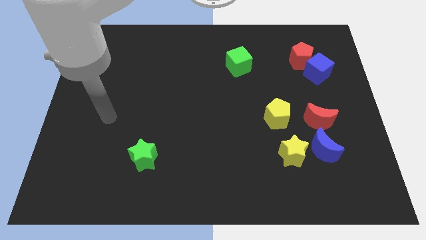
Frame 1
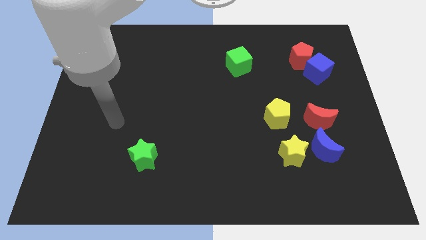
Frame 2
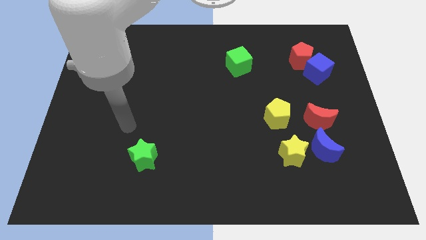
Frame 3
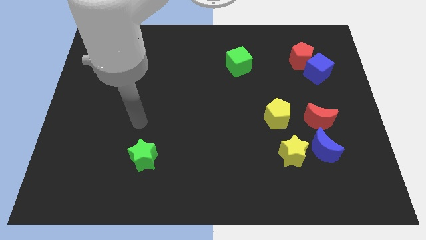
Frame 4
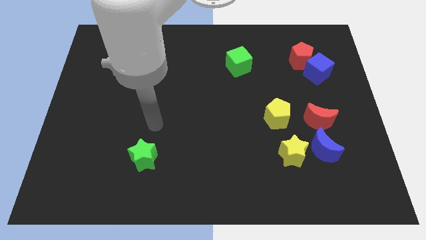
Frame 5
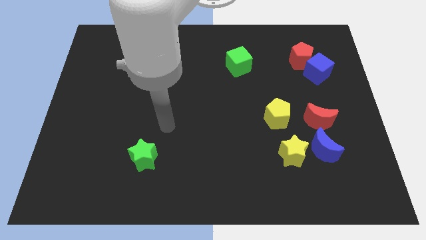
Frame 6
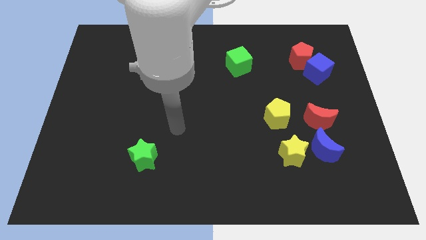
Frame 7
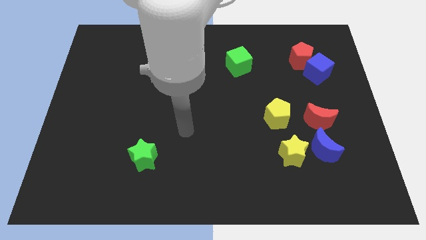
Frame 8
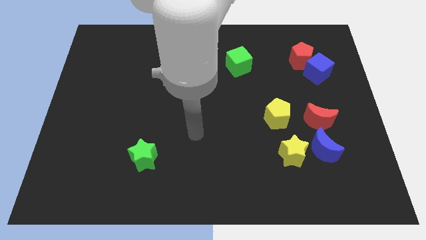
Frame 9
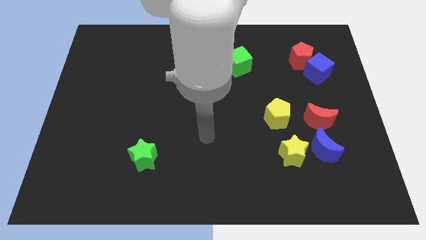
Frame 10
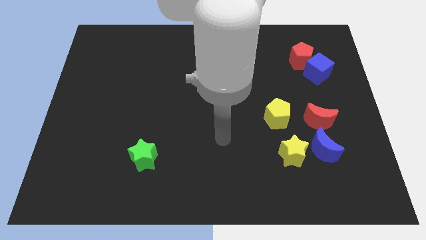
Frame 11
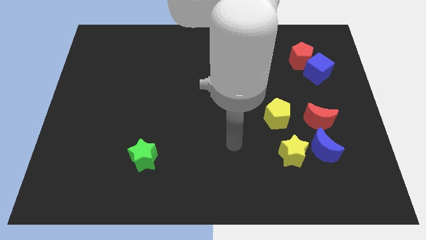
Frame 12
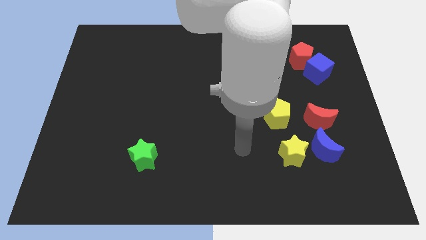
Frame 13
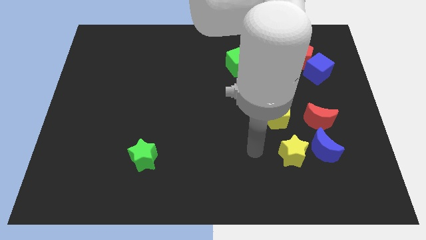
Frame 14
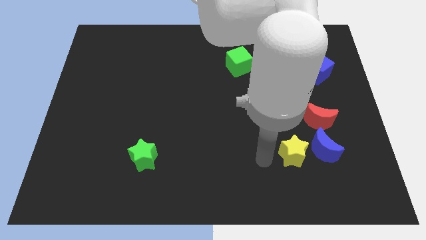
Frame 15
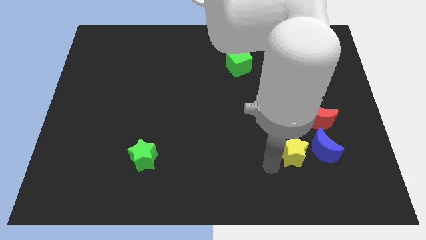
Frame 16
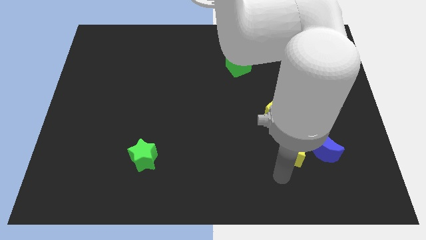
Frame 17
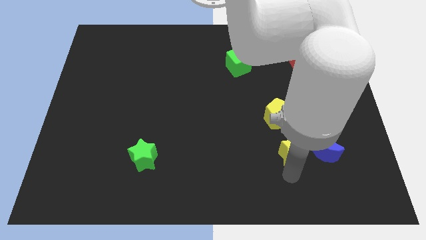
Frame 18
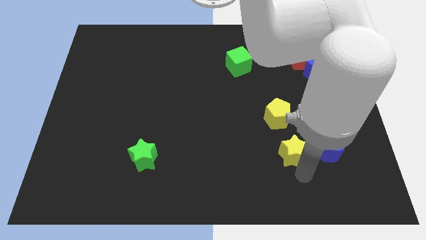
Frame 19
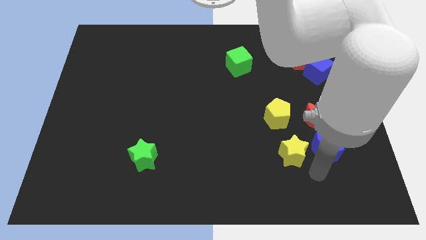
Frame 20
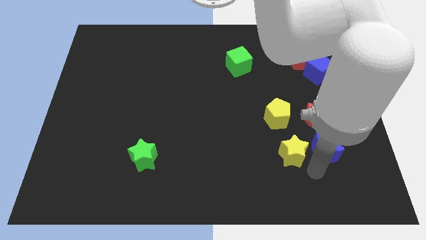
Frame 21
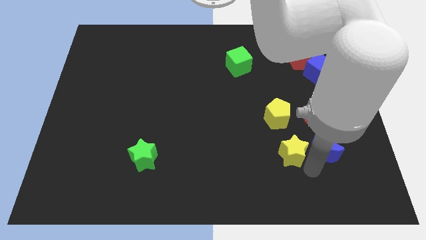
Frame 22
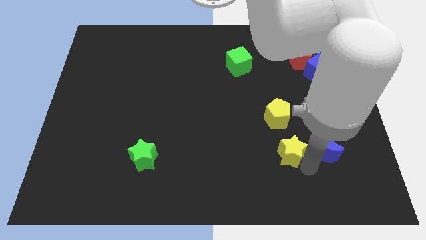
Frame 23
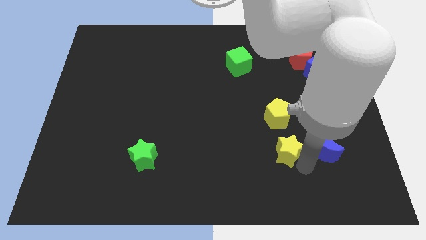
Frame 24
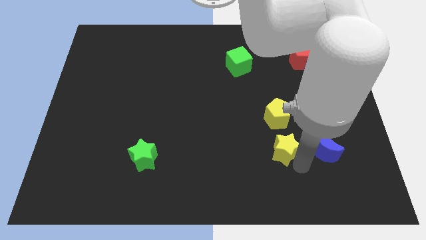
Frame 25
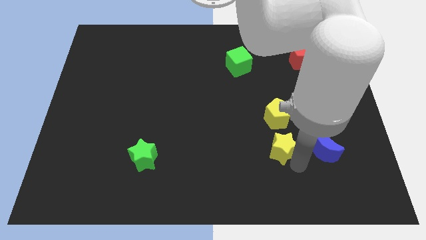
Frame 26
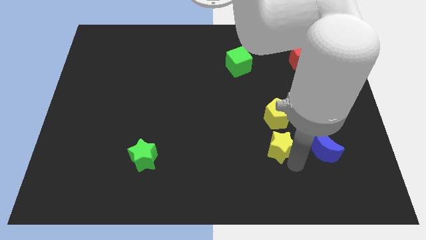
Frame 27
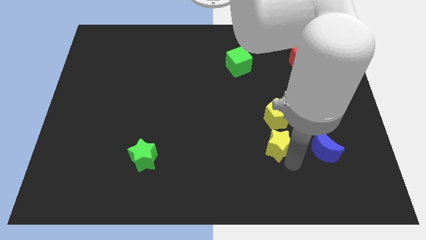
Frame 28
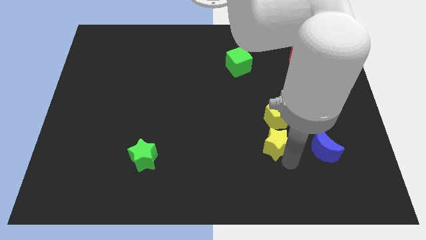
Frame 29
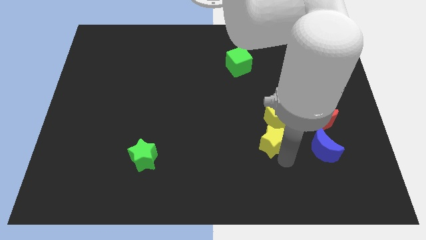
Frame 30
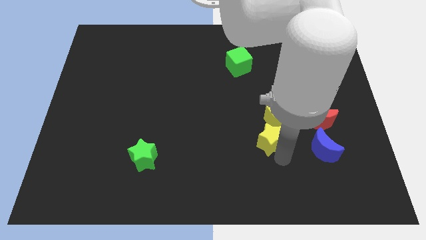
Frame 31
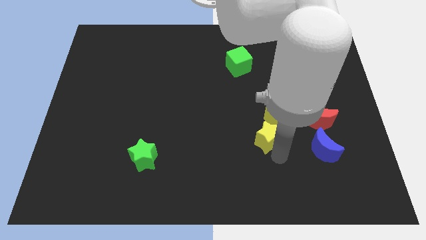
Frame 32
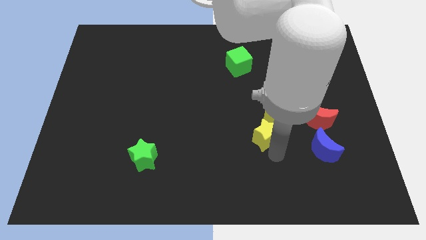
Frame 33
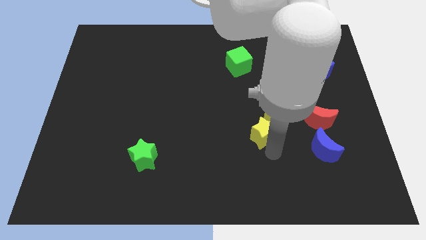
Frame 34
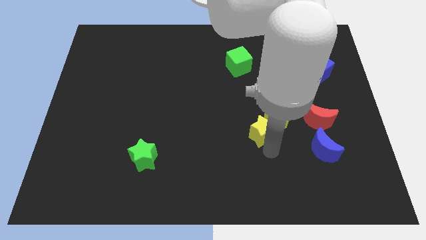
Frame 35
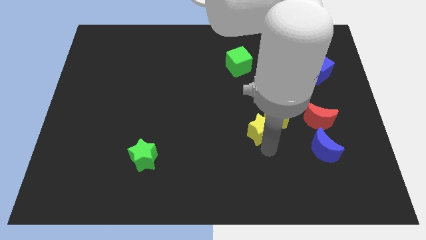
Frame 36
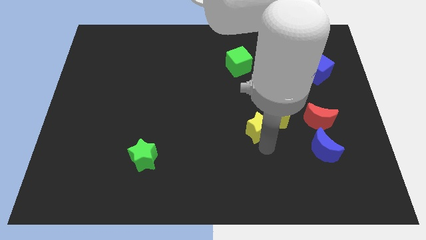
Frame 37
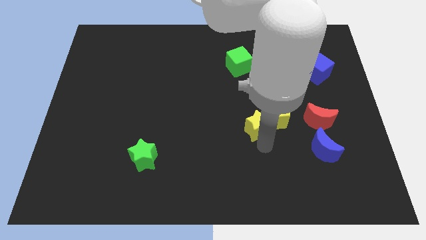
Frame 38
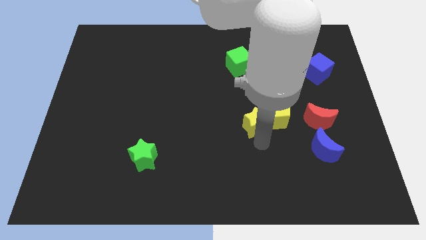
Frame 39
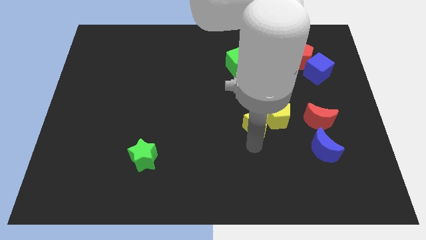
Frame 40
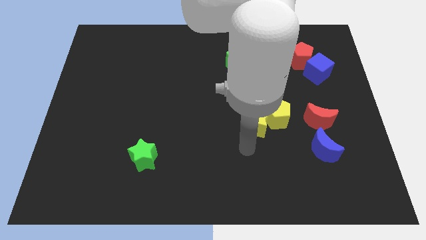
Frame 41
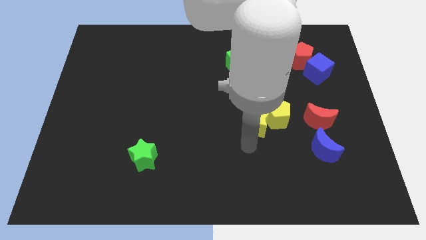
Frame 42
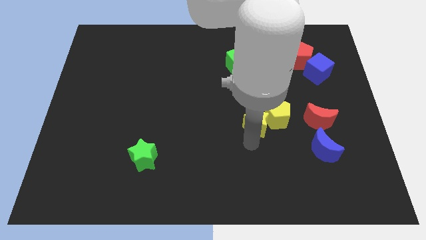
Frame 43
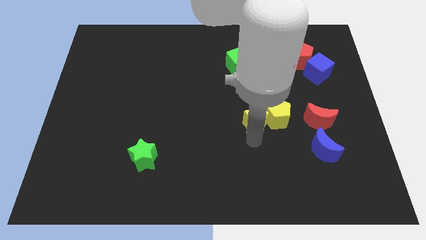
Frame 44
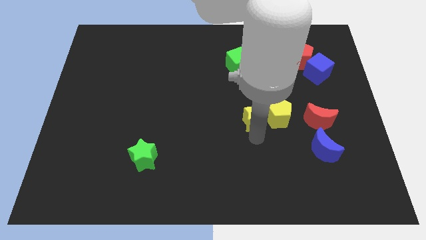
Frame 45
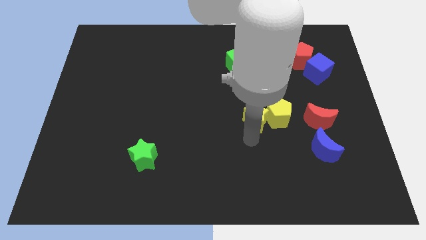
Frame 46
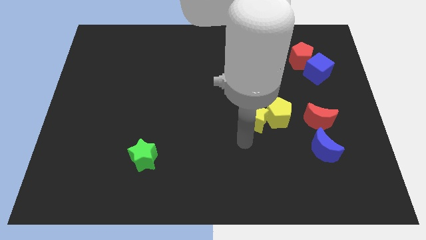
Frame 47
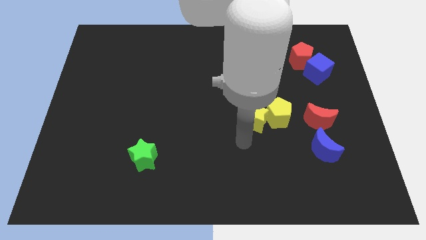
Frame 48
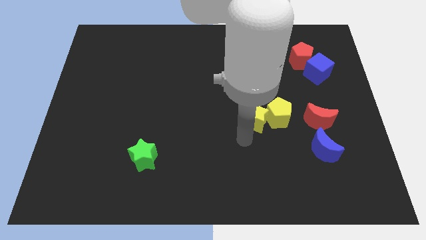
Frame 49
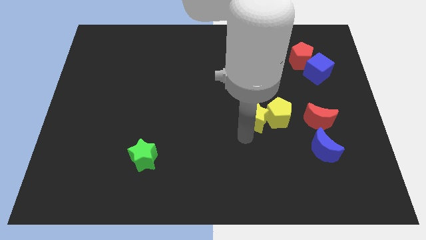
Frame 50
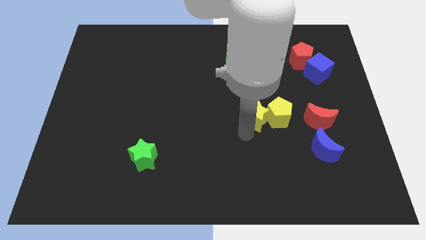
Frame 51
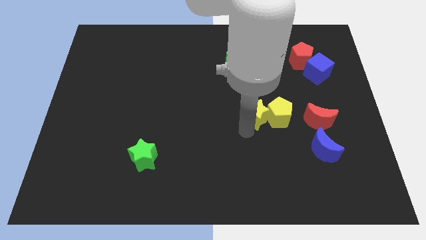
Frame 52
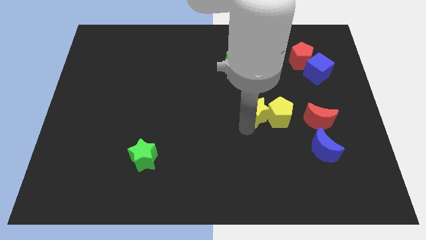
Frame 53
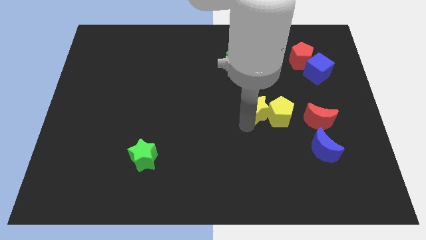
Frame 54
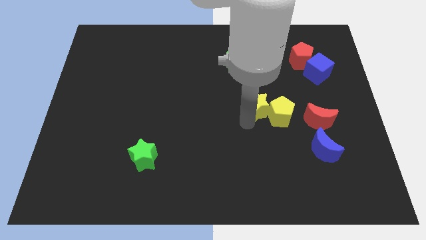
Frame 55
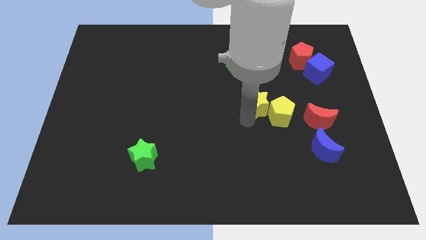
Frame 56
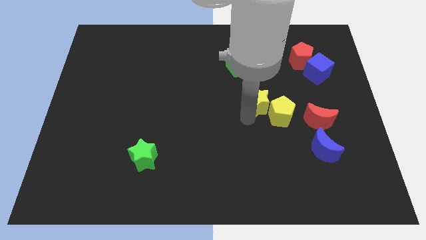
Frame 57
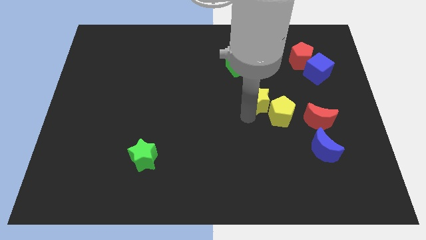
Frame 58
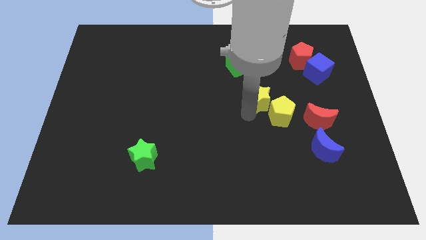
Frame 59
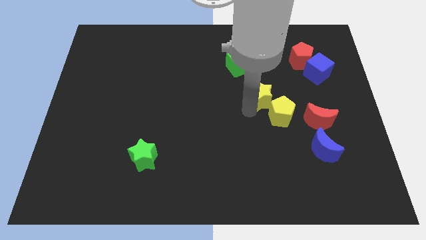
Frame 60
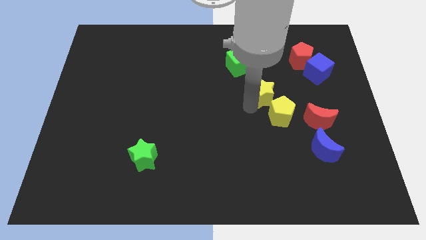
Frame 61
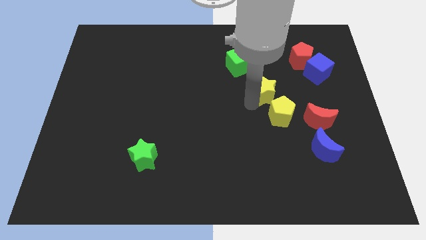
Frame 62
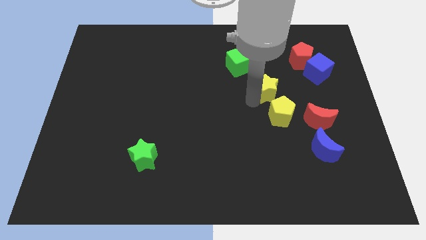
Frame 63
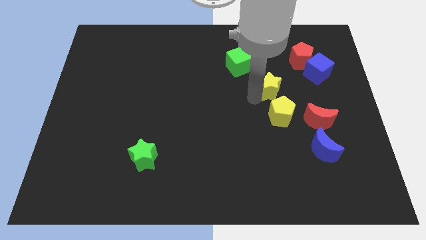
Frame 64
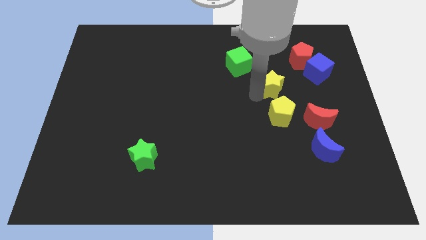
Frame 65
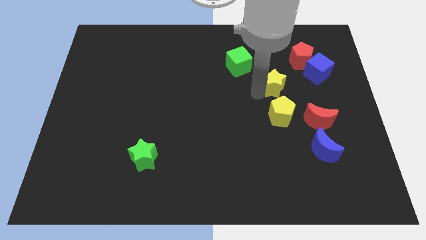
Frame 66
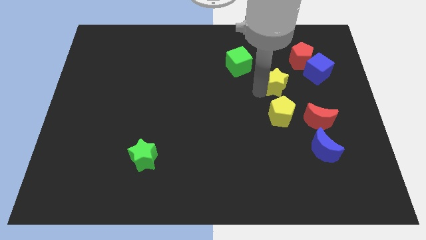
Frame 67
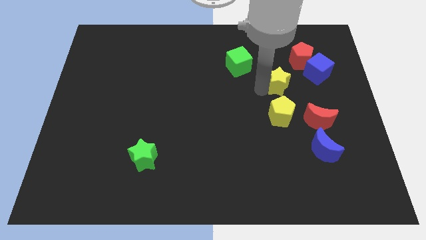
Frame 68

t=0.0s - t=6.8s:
slide the yellow star diagonally down and to the left of the blue cube
